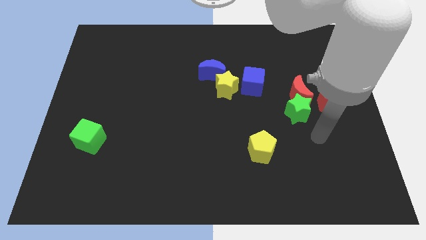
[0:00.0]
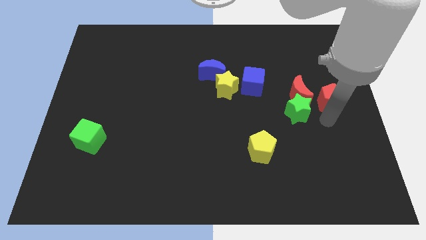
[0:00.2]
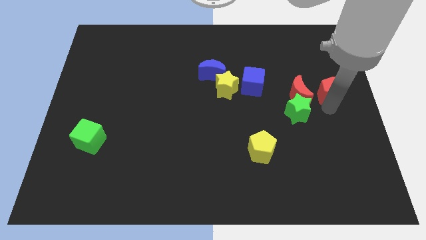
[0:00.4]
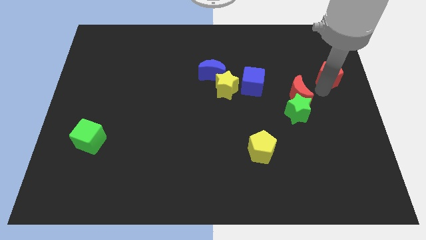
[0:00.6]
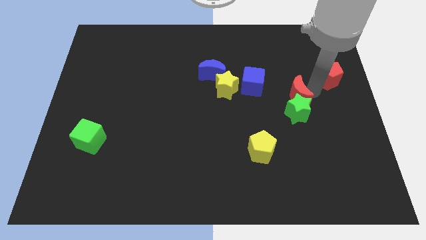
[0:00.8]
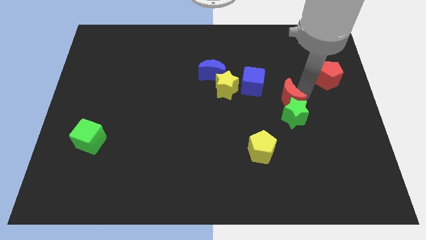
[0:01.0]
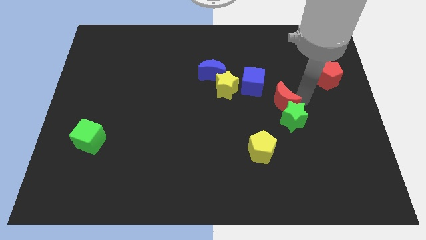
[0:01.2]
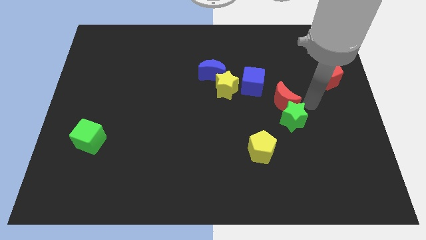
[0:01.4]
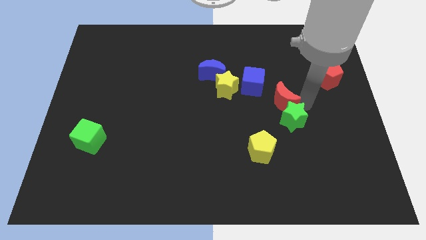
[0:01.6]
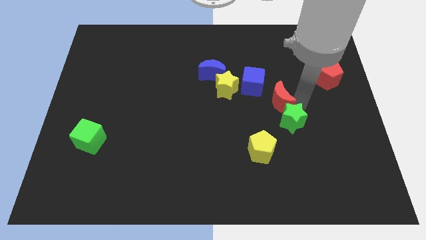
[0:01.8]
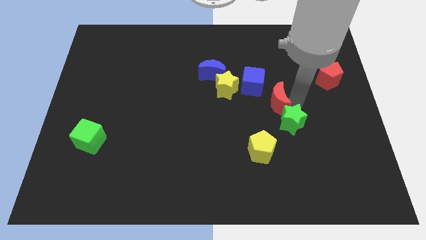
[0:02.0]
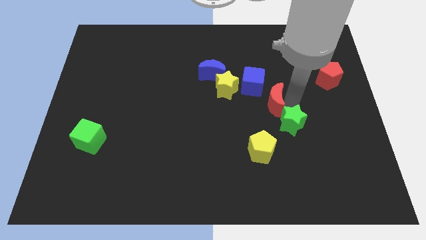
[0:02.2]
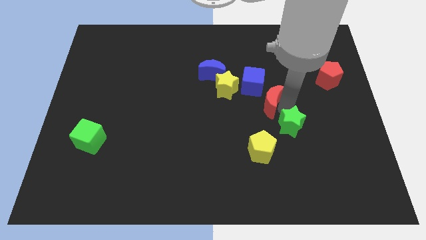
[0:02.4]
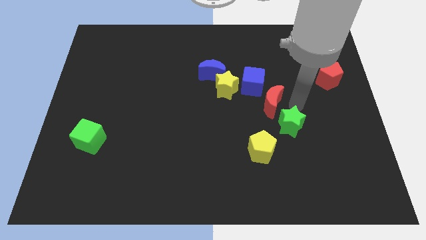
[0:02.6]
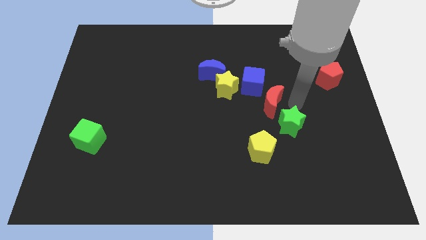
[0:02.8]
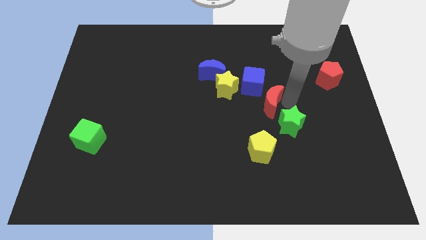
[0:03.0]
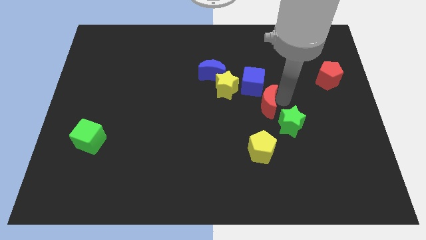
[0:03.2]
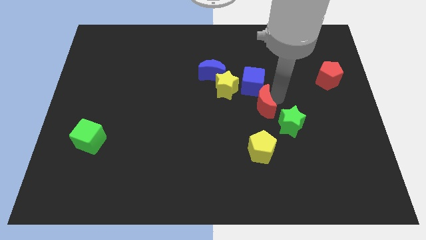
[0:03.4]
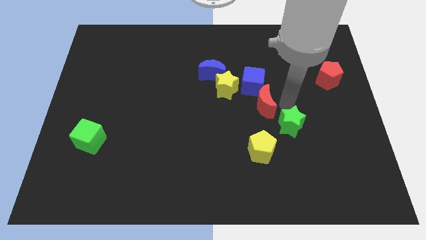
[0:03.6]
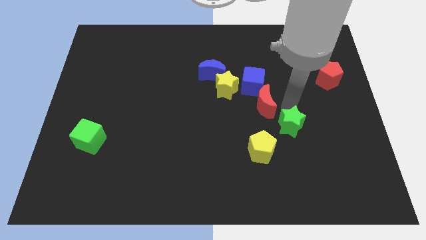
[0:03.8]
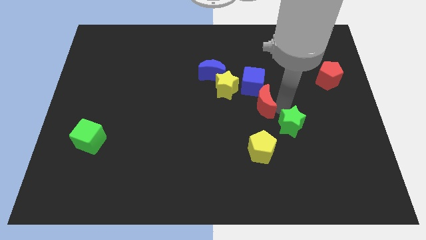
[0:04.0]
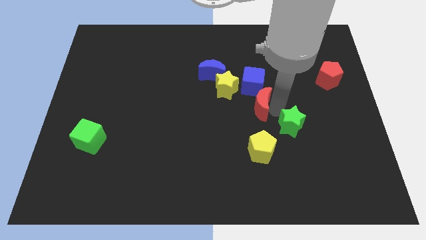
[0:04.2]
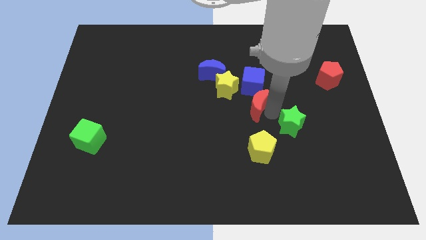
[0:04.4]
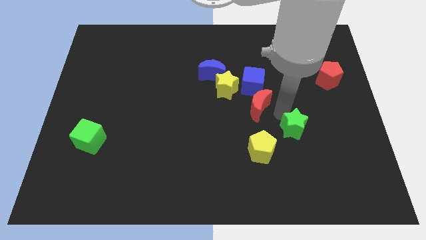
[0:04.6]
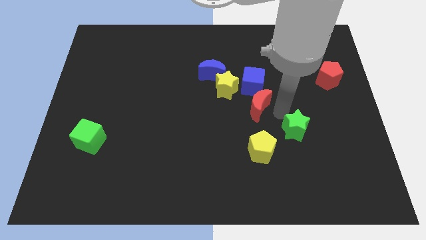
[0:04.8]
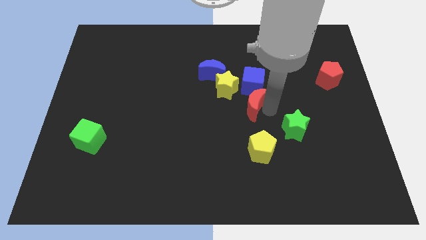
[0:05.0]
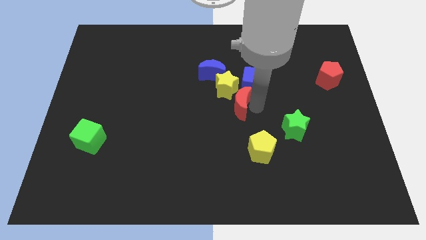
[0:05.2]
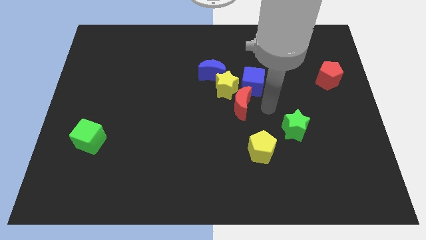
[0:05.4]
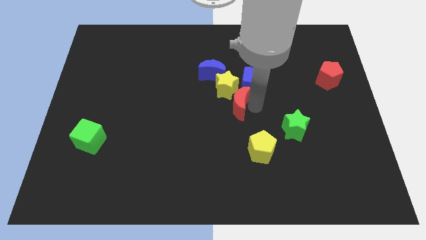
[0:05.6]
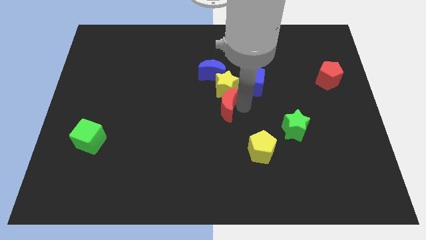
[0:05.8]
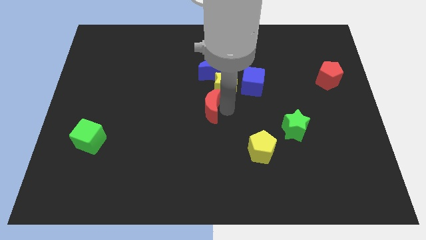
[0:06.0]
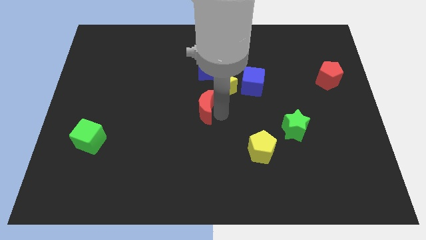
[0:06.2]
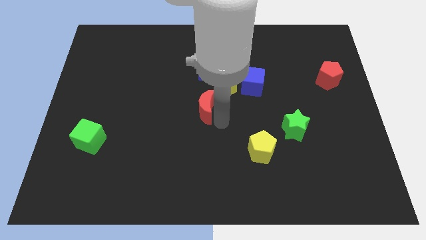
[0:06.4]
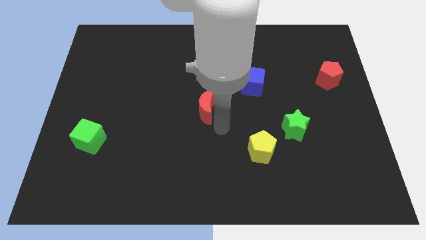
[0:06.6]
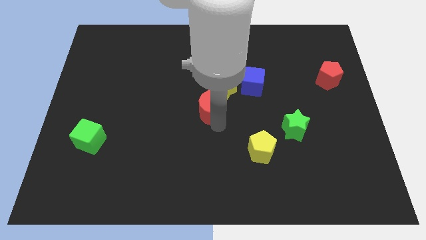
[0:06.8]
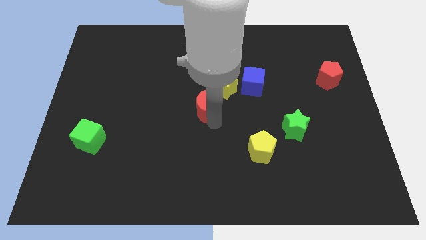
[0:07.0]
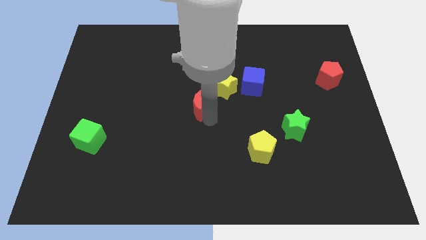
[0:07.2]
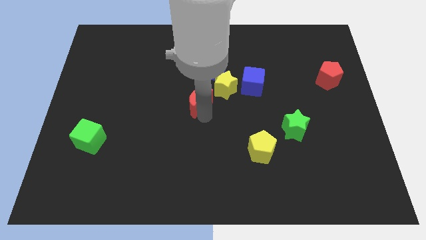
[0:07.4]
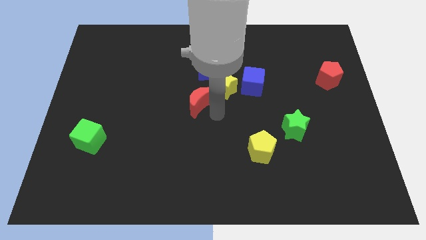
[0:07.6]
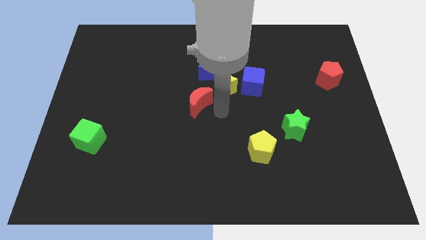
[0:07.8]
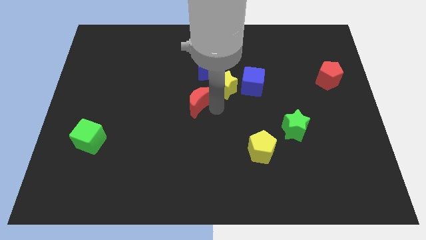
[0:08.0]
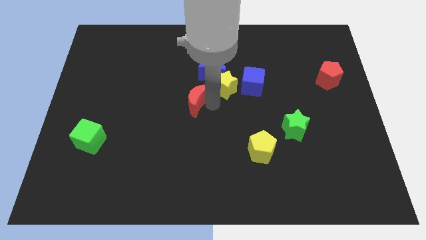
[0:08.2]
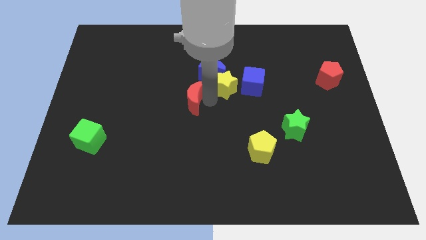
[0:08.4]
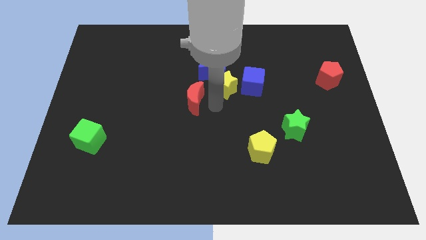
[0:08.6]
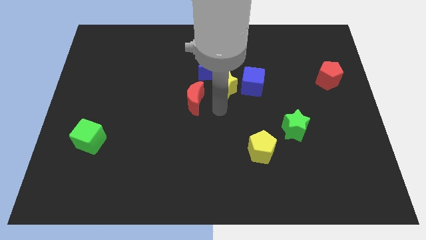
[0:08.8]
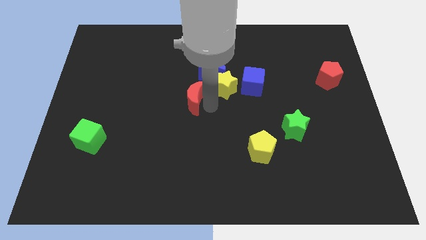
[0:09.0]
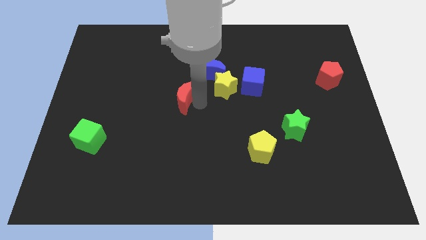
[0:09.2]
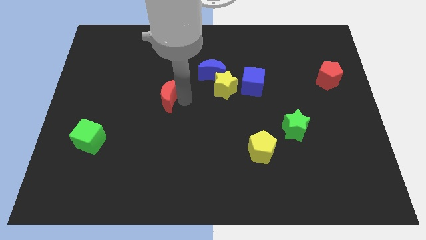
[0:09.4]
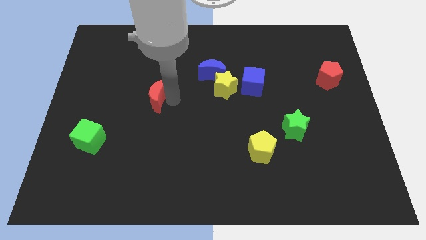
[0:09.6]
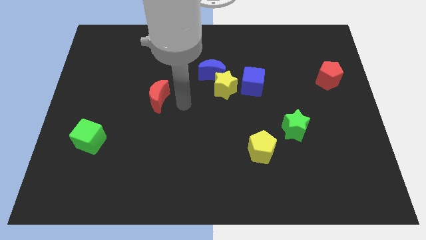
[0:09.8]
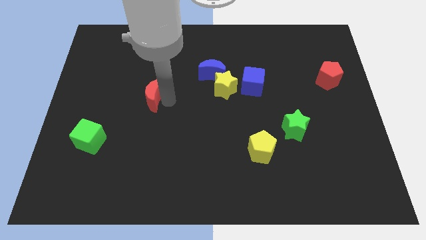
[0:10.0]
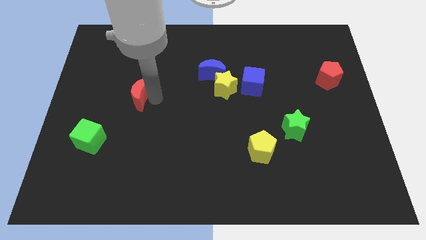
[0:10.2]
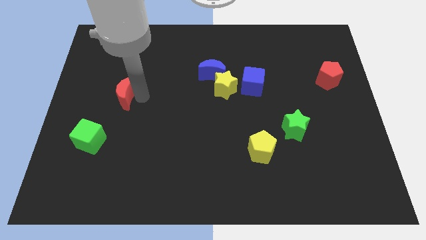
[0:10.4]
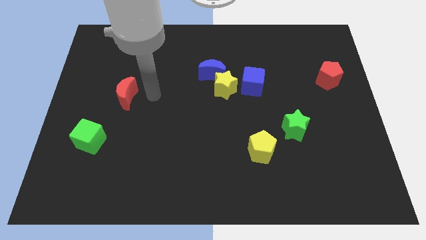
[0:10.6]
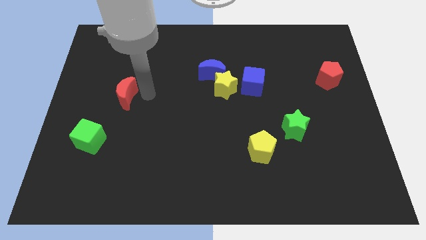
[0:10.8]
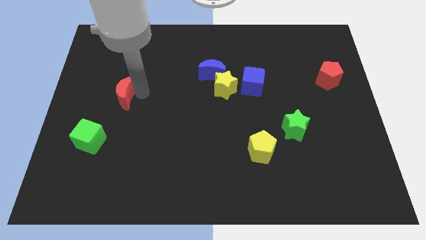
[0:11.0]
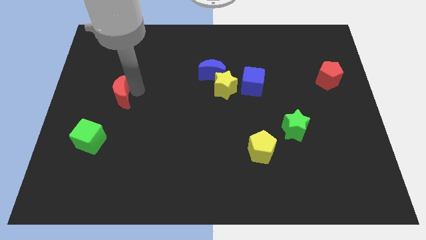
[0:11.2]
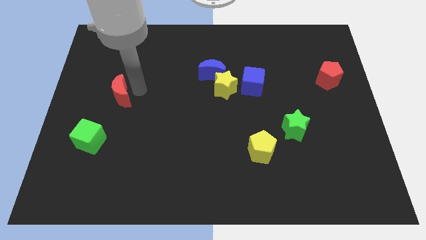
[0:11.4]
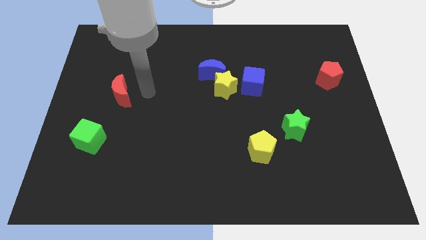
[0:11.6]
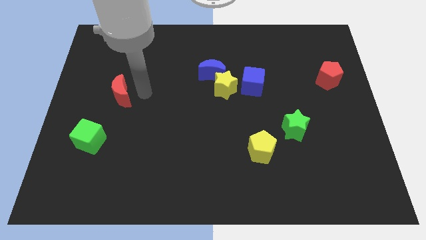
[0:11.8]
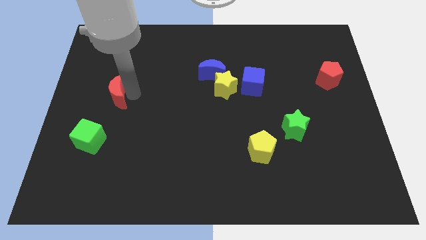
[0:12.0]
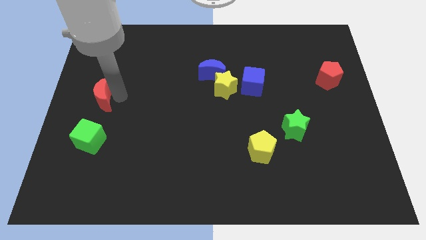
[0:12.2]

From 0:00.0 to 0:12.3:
slide the red moon to the left side
